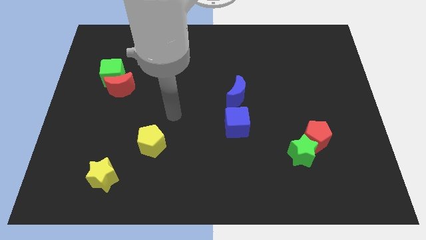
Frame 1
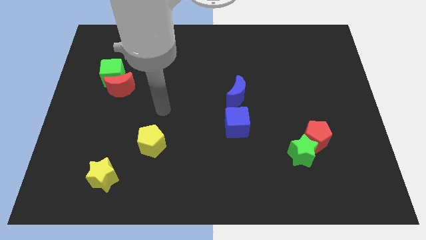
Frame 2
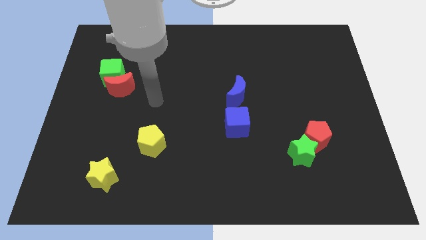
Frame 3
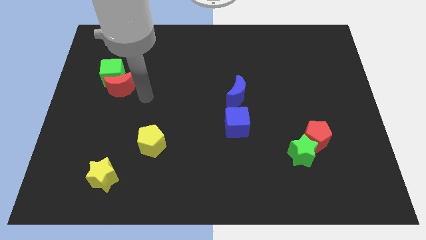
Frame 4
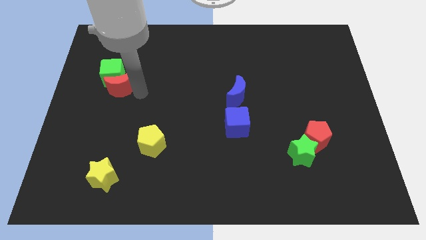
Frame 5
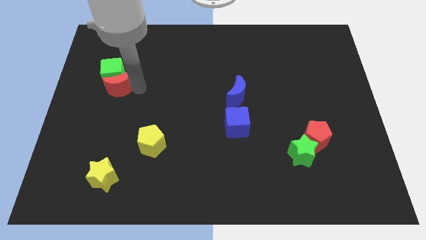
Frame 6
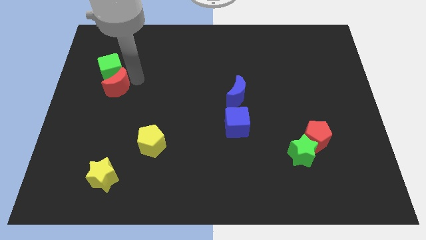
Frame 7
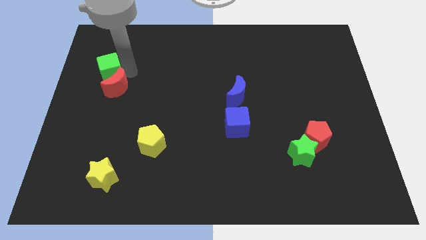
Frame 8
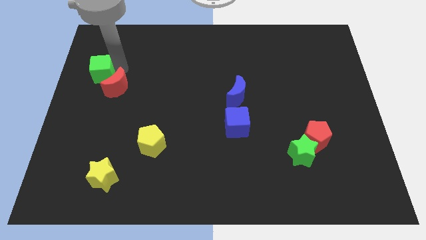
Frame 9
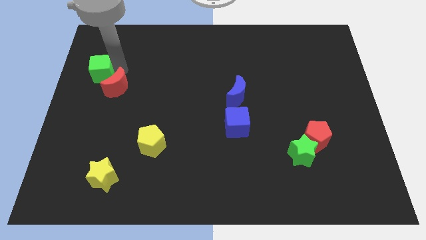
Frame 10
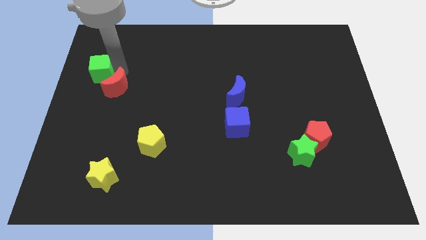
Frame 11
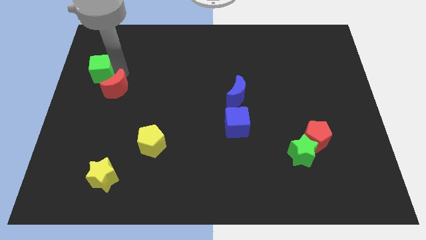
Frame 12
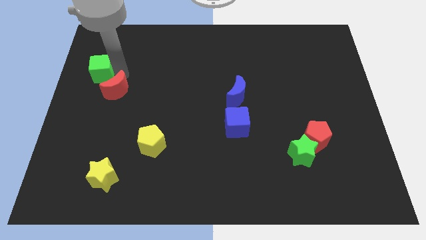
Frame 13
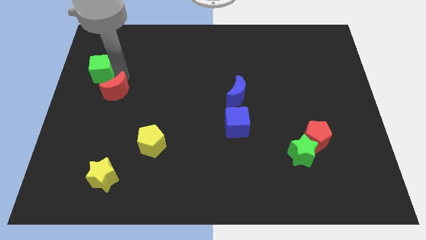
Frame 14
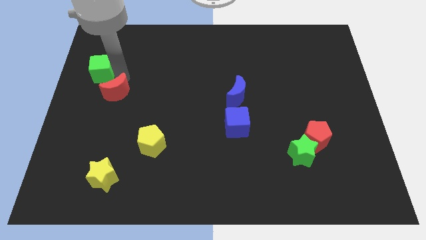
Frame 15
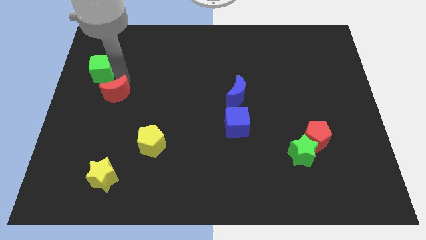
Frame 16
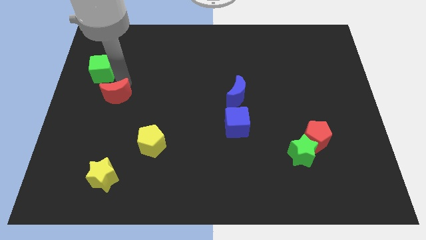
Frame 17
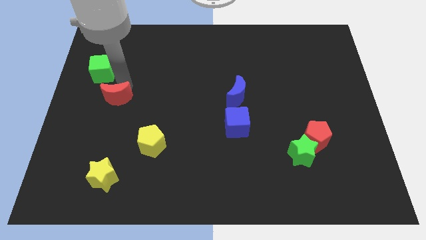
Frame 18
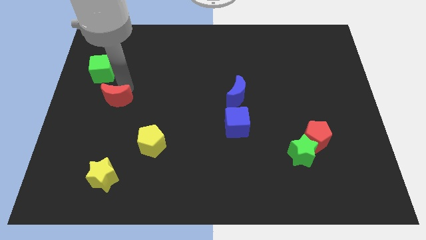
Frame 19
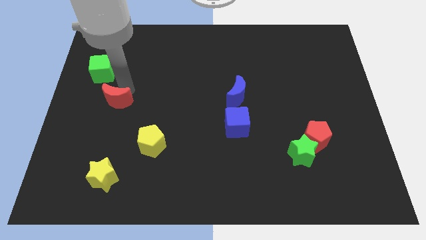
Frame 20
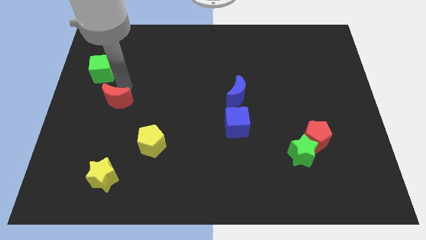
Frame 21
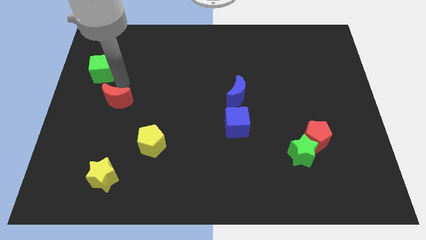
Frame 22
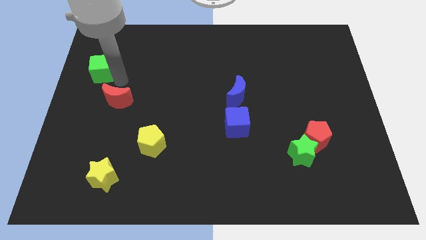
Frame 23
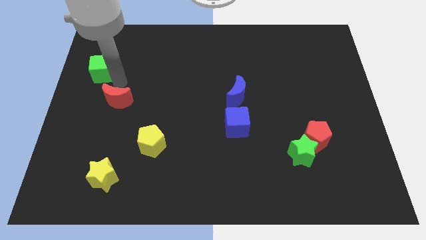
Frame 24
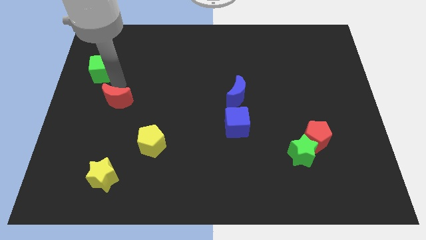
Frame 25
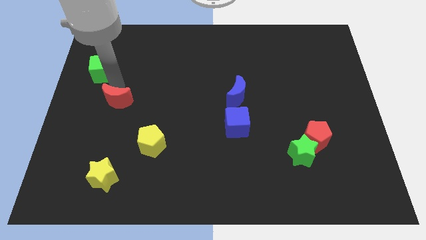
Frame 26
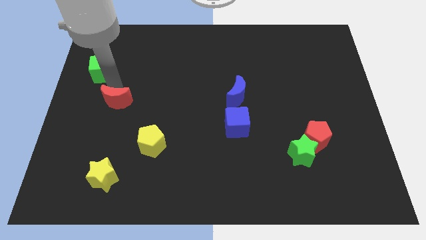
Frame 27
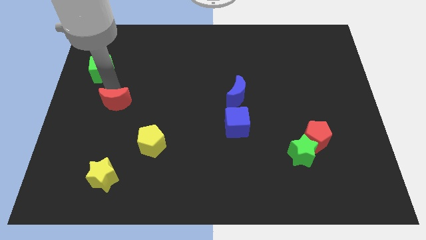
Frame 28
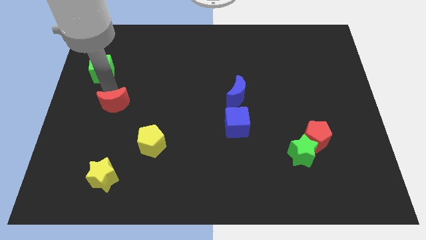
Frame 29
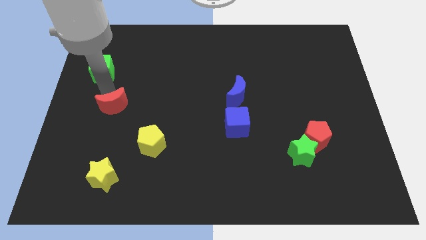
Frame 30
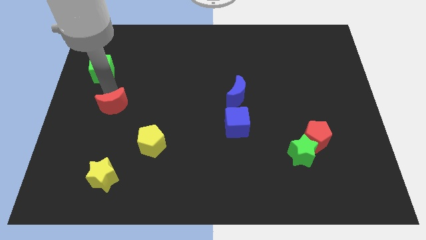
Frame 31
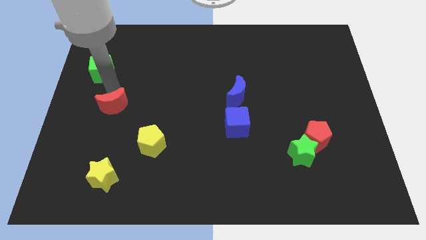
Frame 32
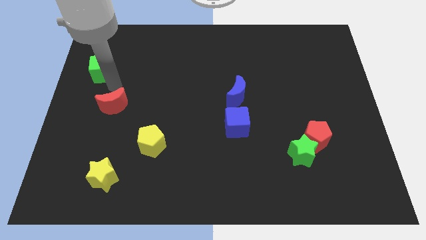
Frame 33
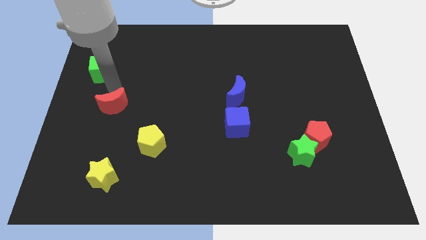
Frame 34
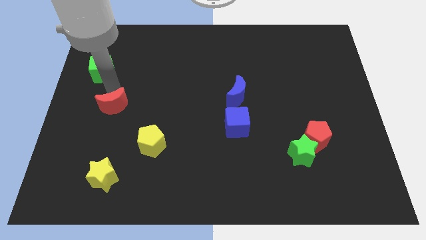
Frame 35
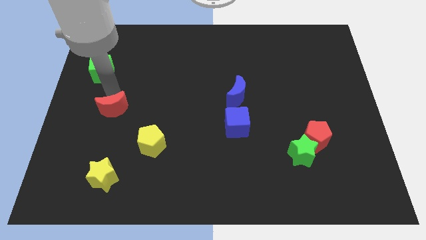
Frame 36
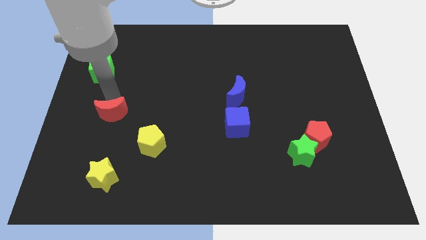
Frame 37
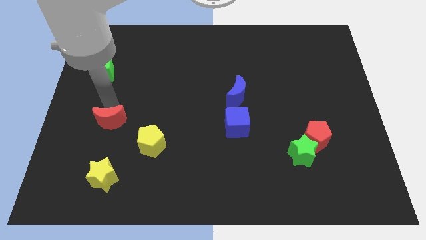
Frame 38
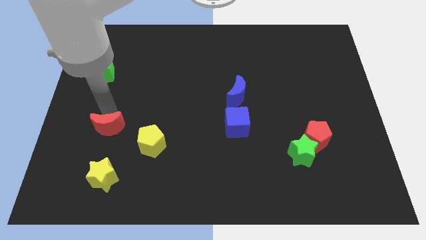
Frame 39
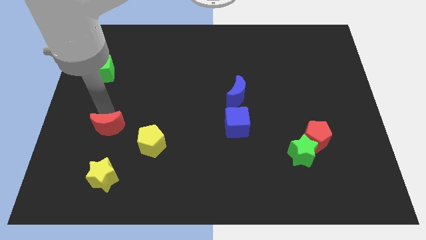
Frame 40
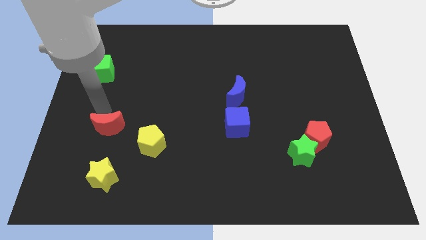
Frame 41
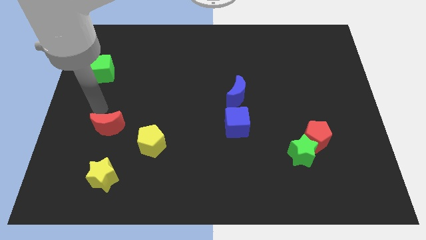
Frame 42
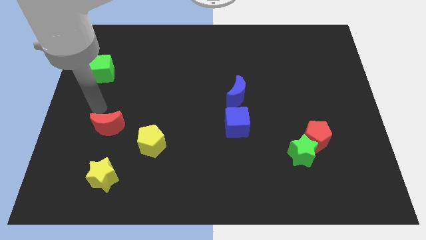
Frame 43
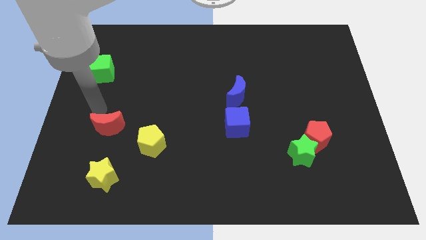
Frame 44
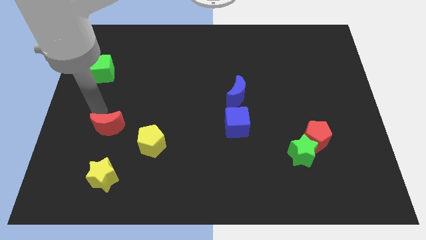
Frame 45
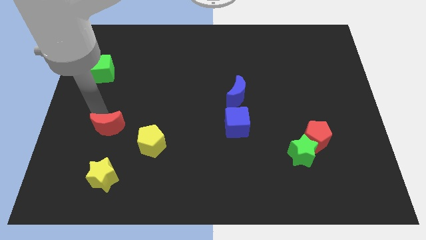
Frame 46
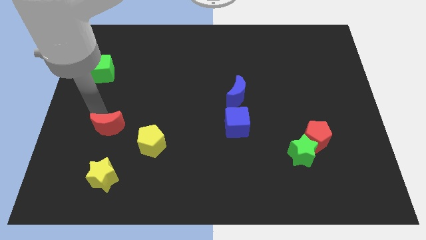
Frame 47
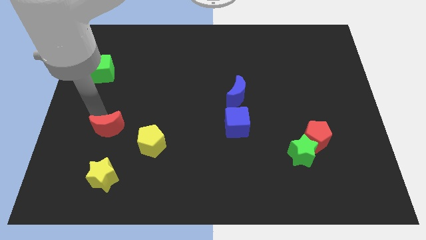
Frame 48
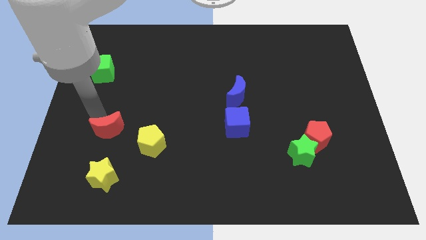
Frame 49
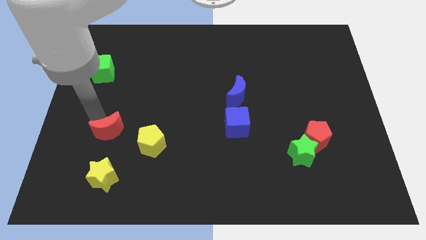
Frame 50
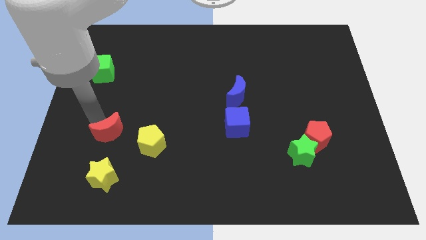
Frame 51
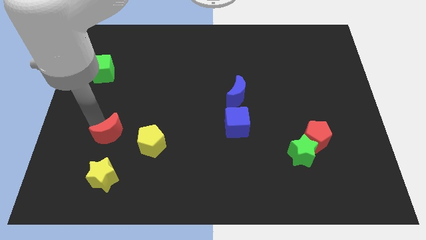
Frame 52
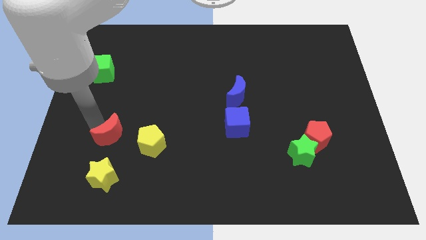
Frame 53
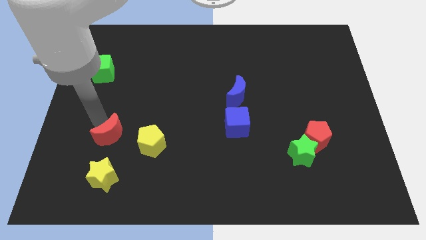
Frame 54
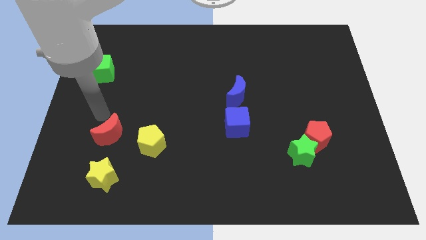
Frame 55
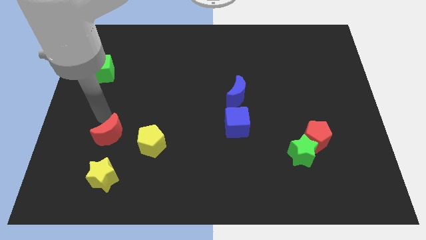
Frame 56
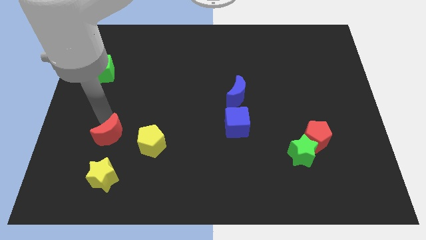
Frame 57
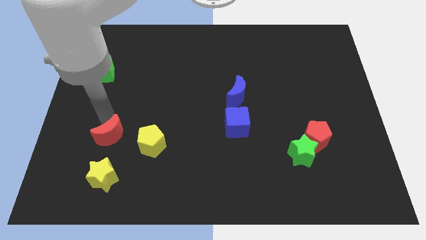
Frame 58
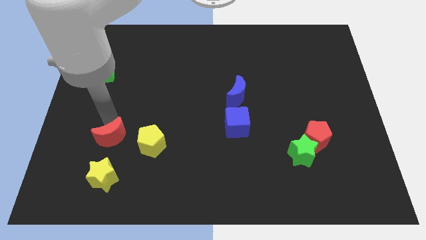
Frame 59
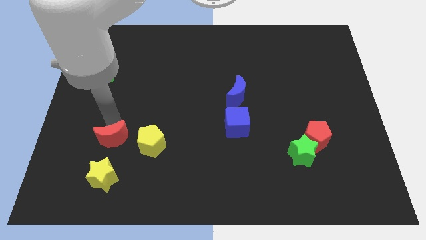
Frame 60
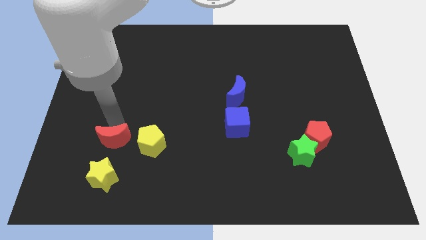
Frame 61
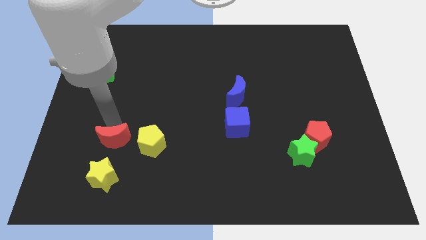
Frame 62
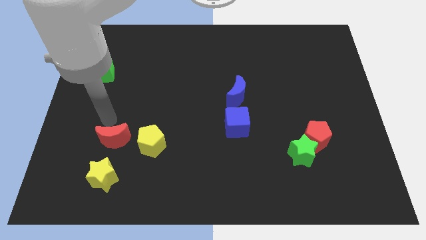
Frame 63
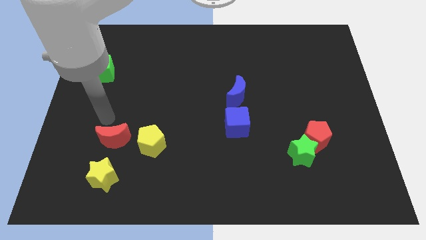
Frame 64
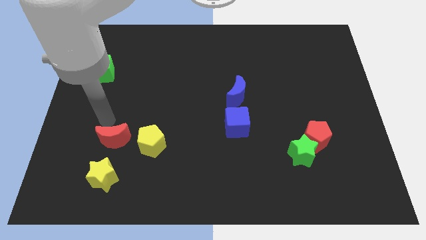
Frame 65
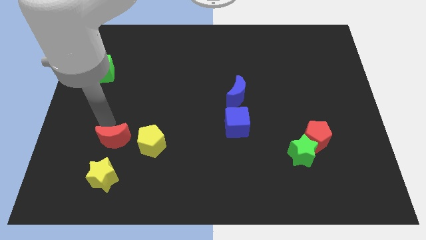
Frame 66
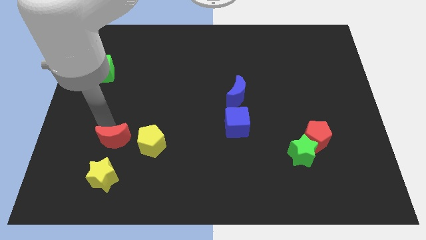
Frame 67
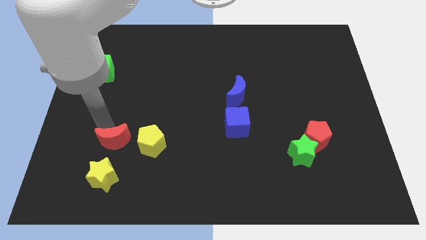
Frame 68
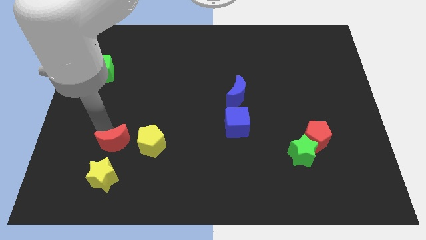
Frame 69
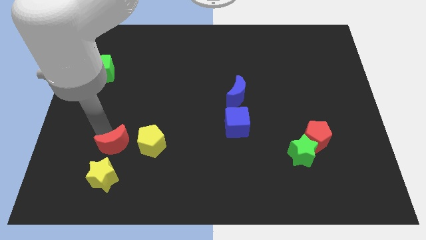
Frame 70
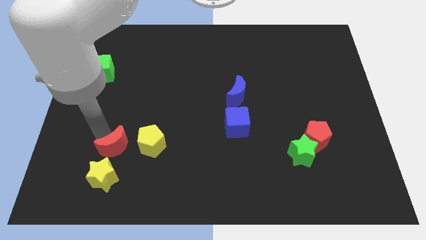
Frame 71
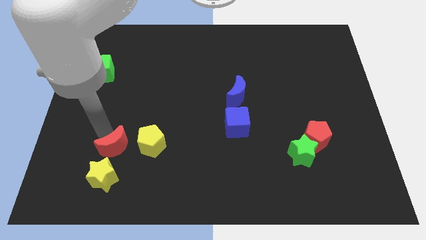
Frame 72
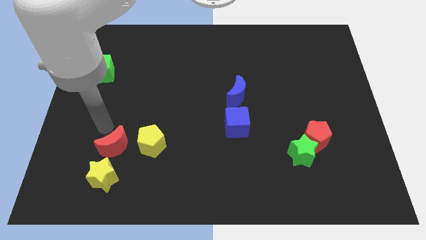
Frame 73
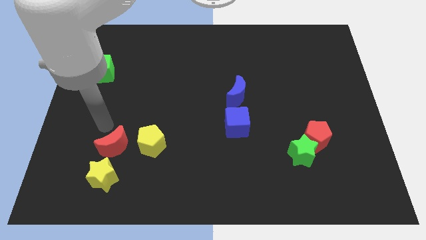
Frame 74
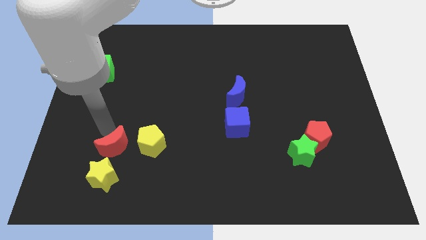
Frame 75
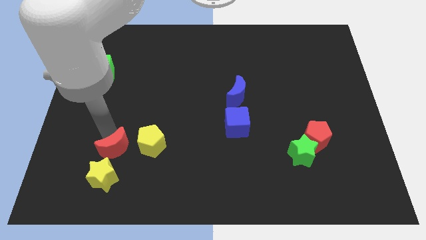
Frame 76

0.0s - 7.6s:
push the red moon to the bottom left of the yellow pentagon
